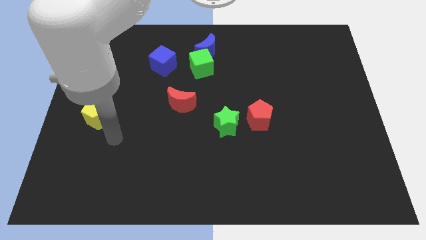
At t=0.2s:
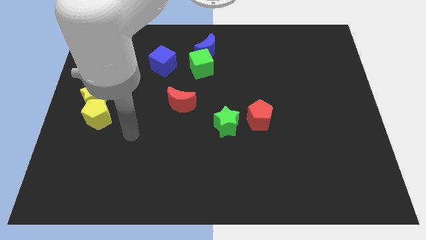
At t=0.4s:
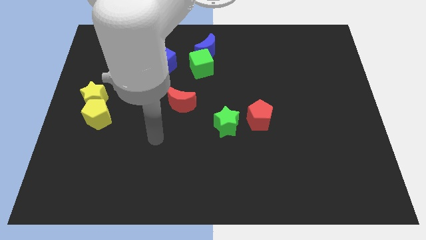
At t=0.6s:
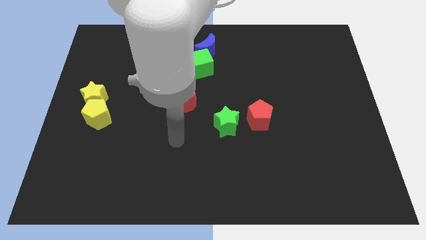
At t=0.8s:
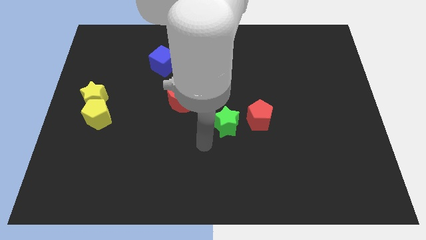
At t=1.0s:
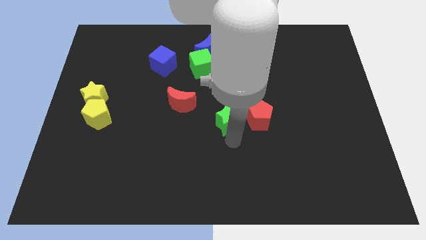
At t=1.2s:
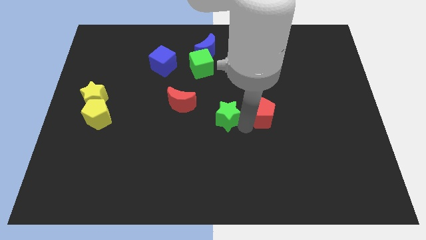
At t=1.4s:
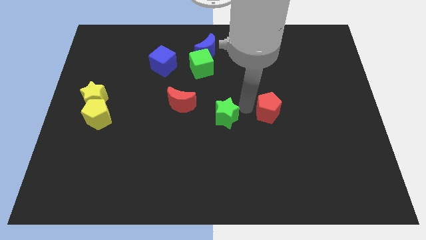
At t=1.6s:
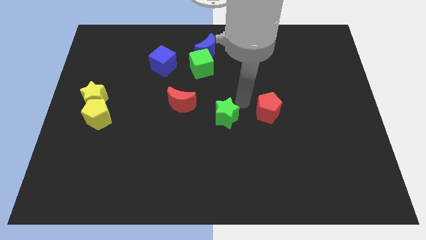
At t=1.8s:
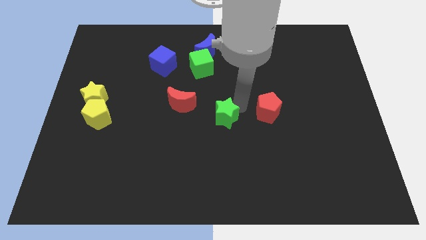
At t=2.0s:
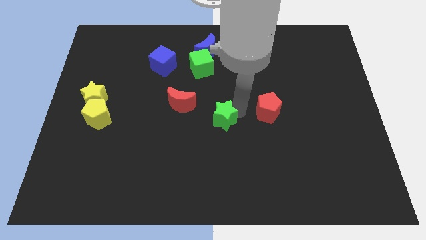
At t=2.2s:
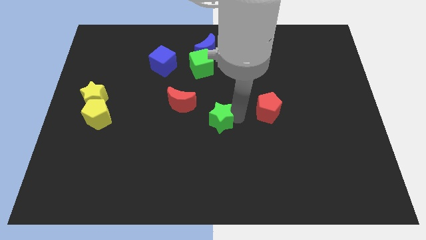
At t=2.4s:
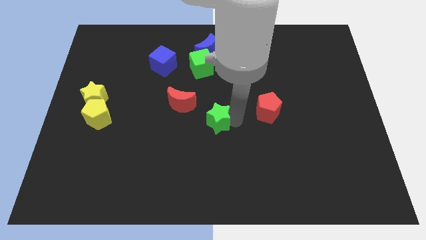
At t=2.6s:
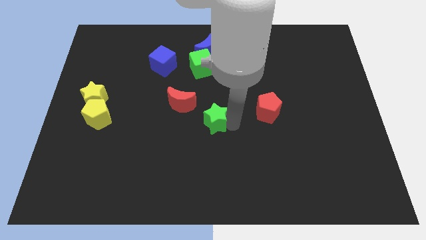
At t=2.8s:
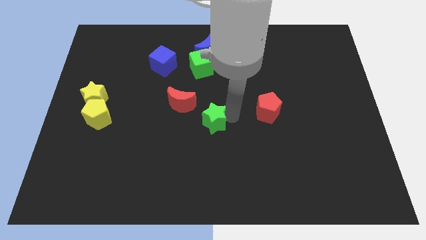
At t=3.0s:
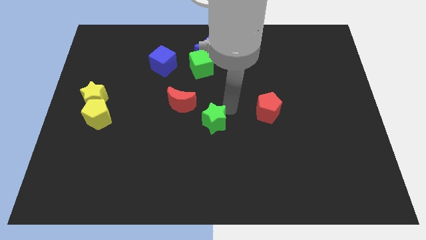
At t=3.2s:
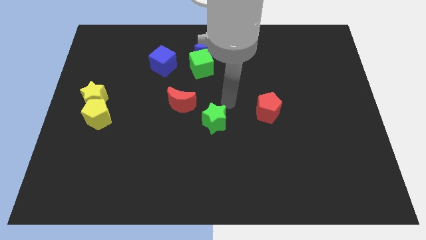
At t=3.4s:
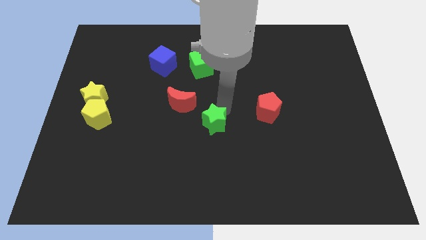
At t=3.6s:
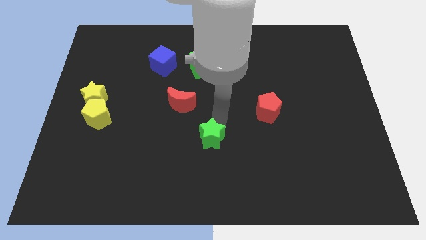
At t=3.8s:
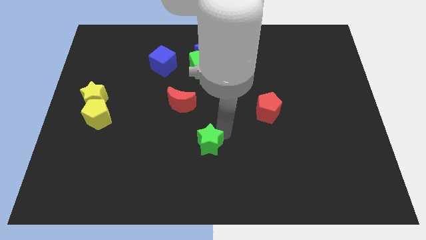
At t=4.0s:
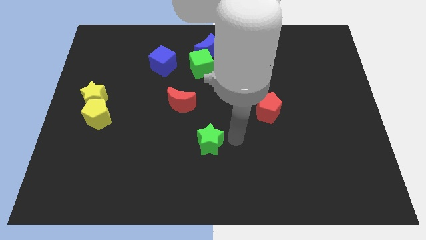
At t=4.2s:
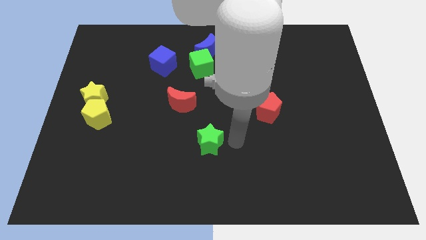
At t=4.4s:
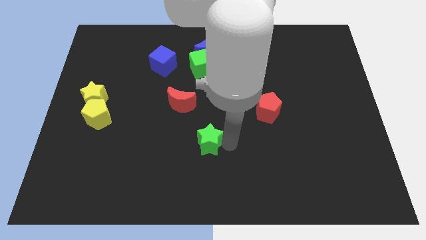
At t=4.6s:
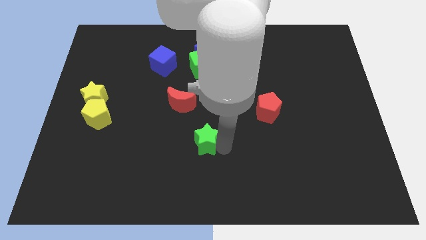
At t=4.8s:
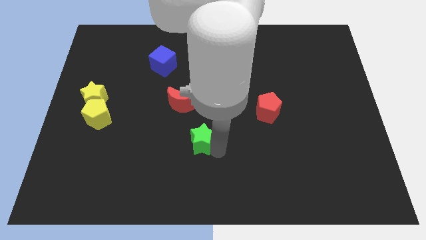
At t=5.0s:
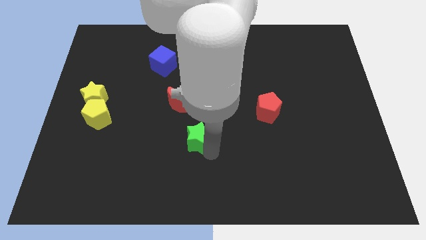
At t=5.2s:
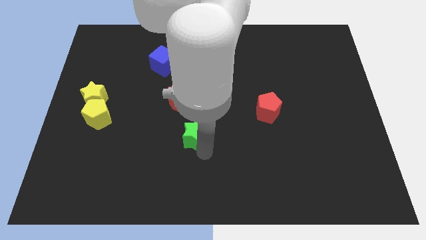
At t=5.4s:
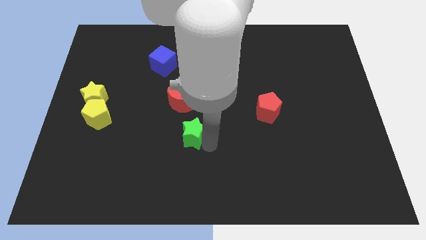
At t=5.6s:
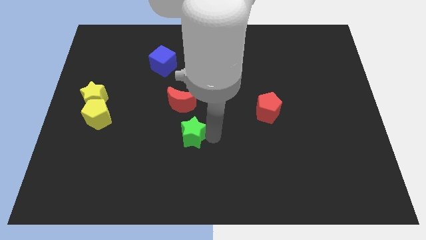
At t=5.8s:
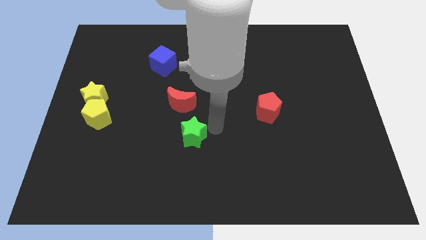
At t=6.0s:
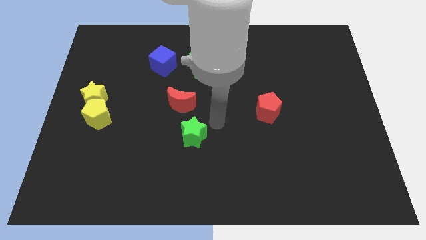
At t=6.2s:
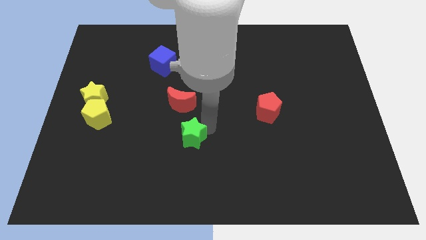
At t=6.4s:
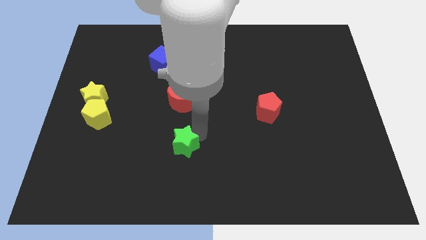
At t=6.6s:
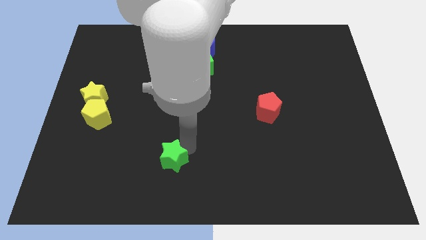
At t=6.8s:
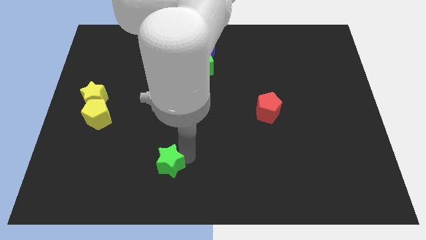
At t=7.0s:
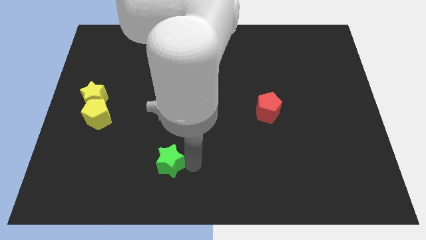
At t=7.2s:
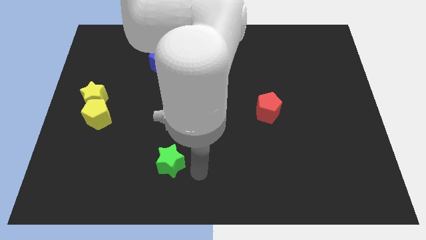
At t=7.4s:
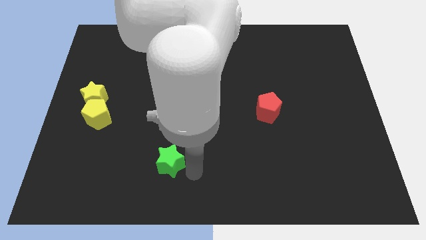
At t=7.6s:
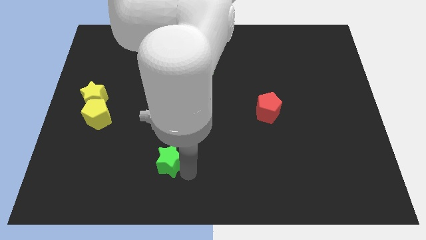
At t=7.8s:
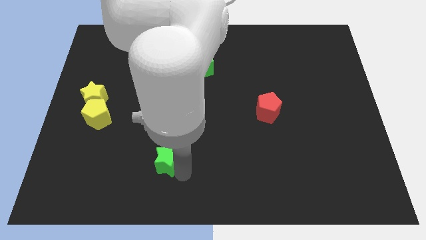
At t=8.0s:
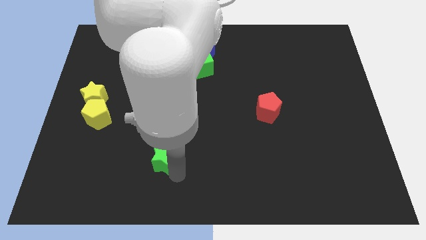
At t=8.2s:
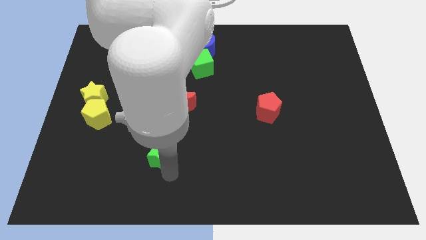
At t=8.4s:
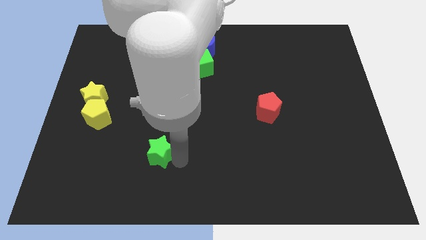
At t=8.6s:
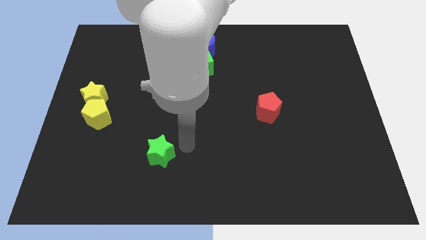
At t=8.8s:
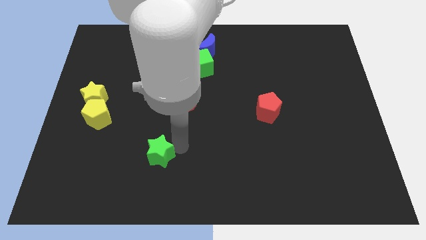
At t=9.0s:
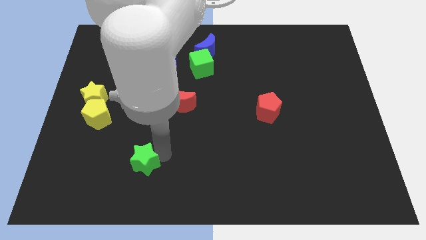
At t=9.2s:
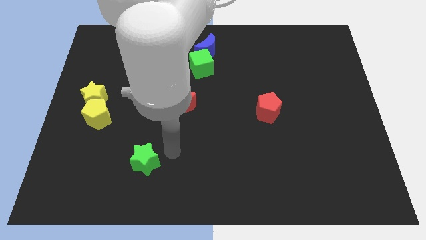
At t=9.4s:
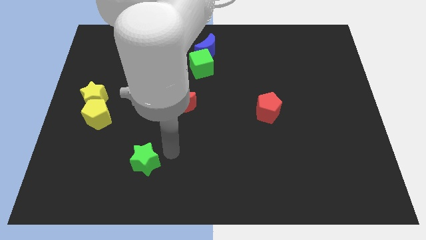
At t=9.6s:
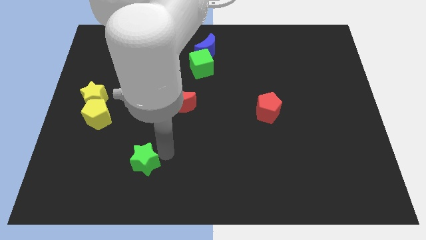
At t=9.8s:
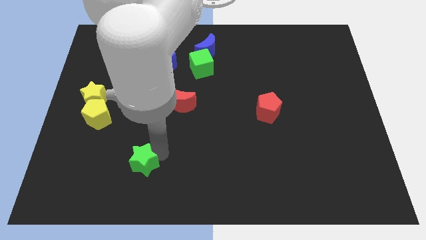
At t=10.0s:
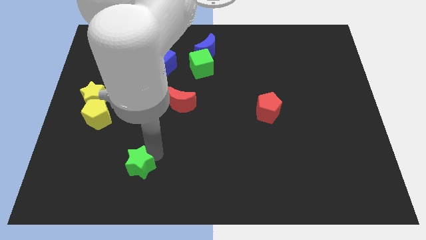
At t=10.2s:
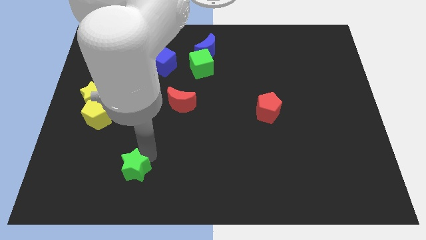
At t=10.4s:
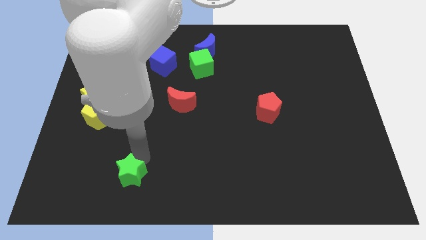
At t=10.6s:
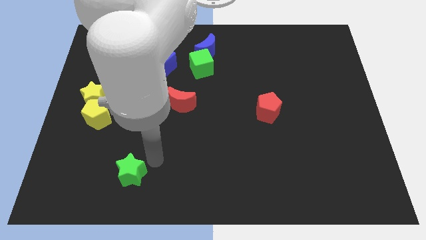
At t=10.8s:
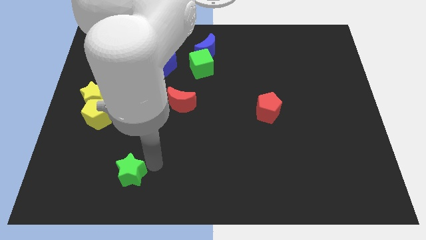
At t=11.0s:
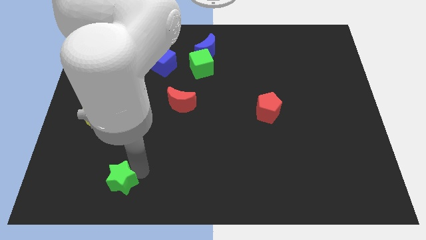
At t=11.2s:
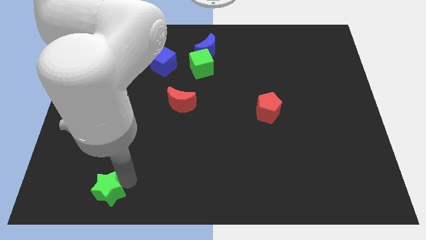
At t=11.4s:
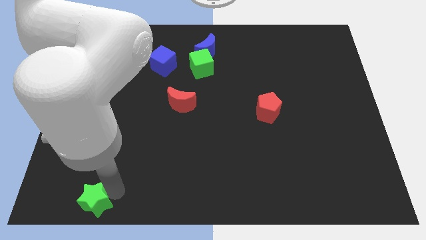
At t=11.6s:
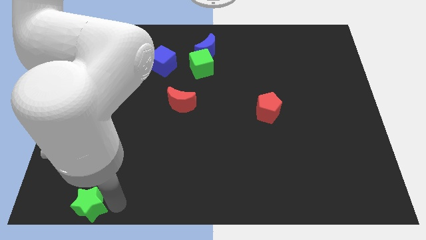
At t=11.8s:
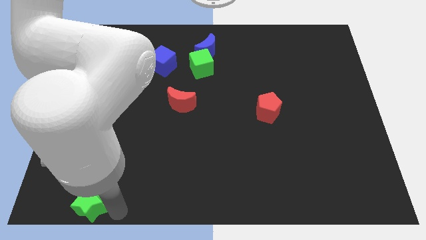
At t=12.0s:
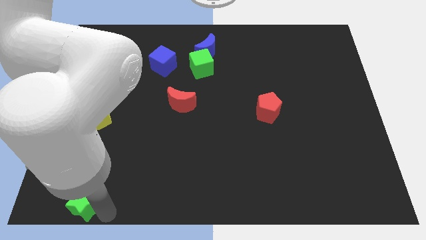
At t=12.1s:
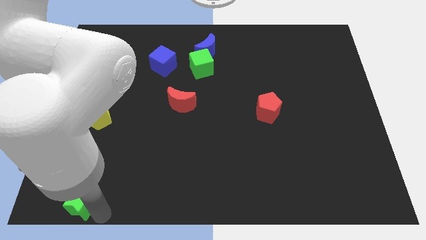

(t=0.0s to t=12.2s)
push the green star to the bottom left corner
